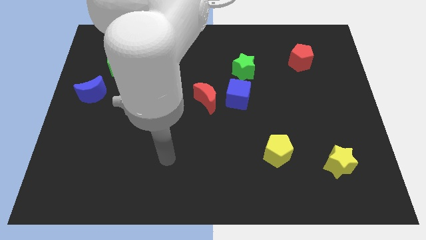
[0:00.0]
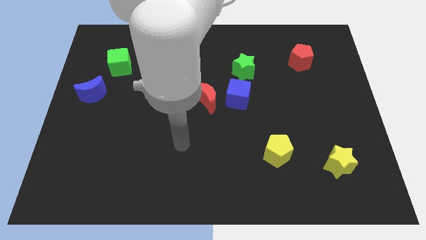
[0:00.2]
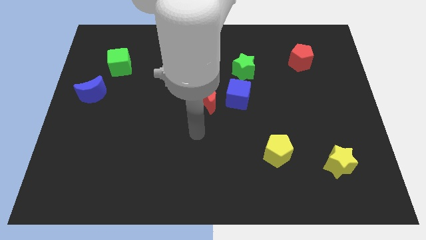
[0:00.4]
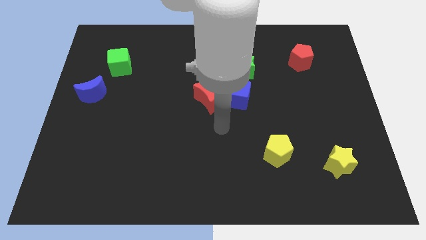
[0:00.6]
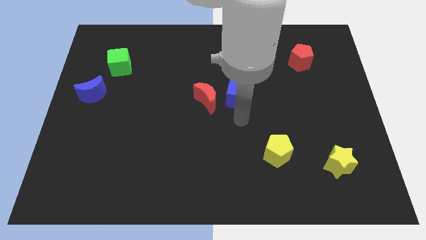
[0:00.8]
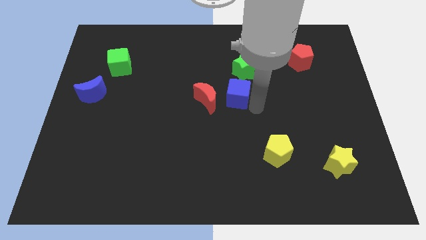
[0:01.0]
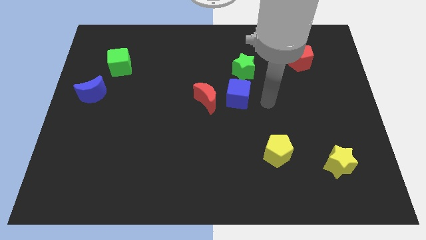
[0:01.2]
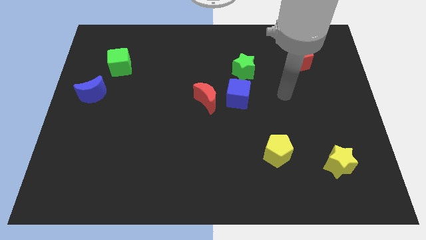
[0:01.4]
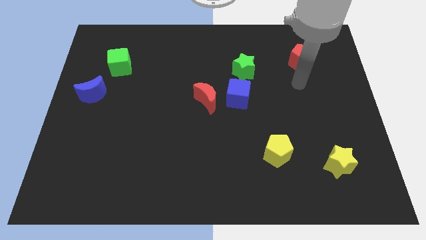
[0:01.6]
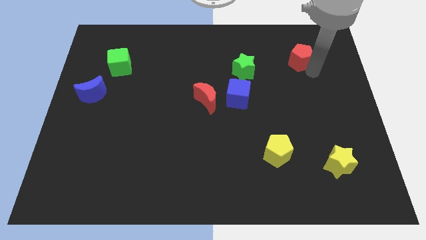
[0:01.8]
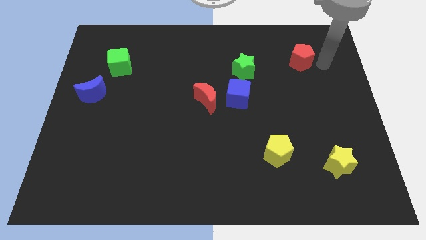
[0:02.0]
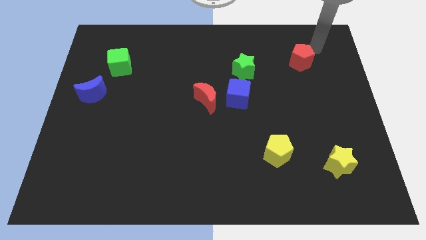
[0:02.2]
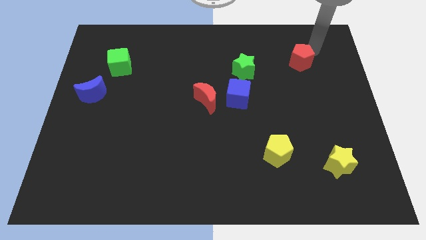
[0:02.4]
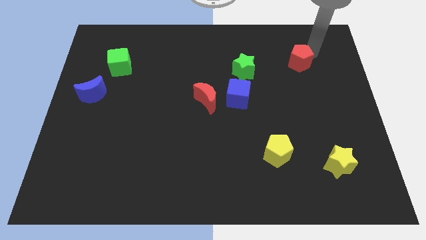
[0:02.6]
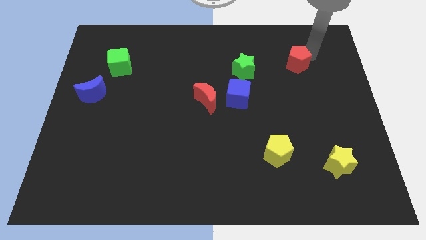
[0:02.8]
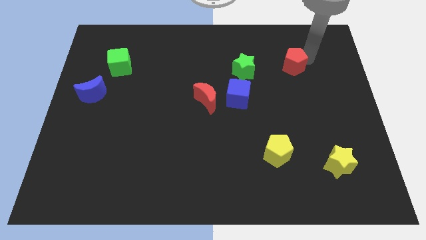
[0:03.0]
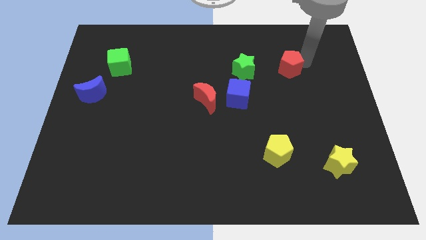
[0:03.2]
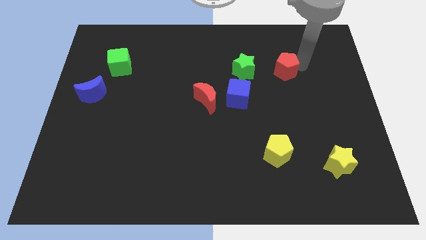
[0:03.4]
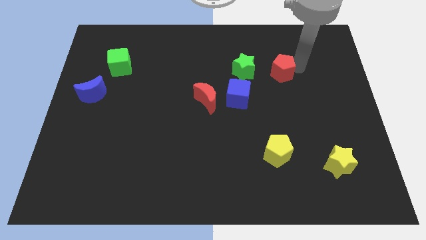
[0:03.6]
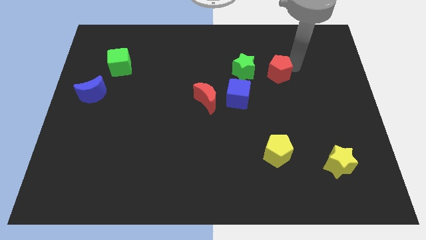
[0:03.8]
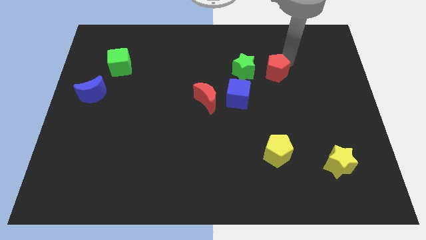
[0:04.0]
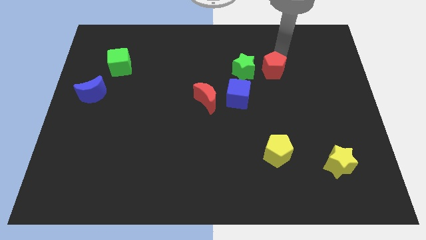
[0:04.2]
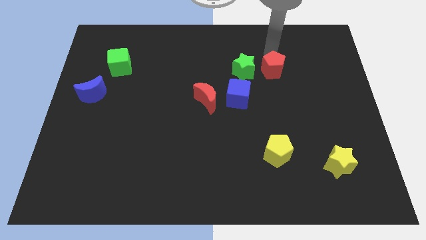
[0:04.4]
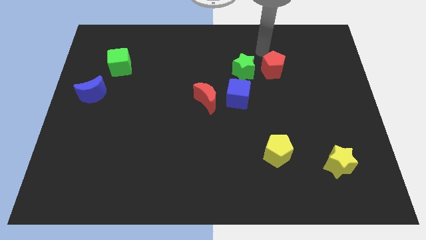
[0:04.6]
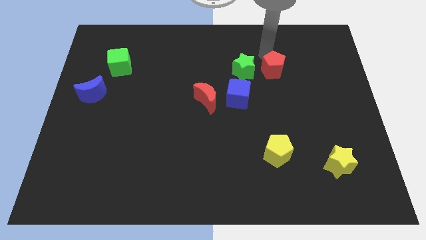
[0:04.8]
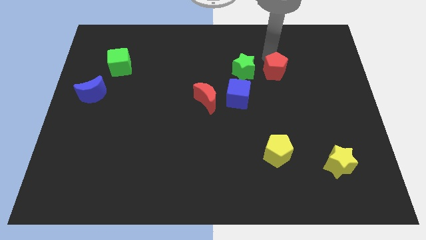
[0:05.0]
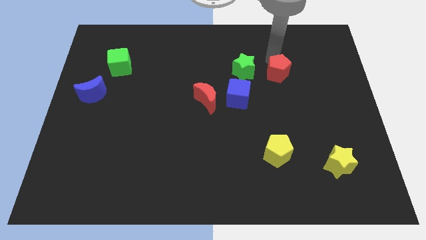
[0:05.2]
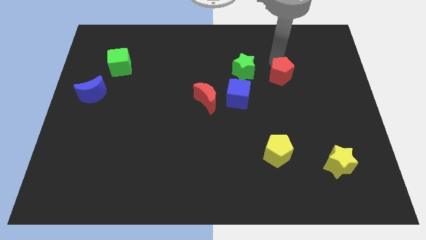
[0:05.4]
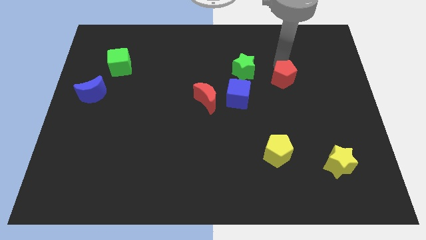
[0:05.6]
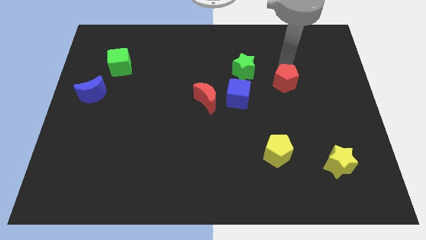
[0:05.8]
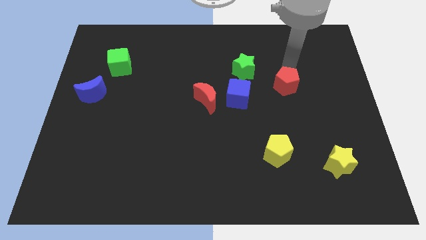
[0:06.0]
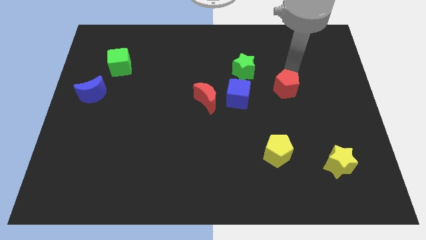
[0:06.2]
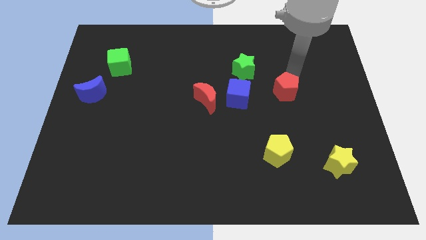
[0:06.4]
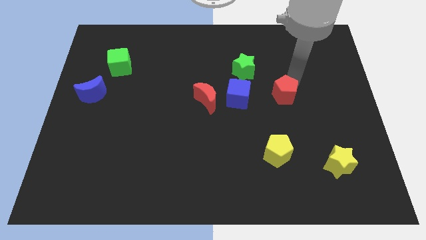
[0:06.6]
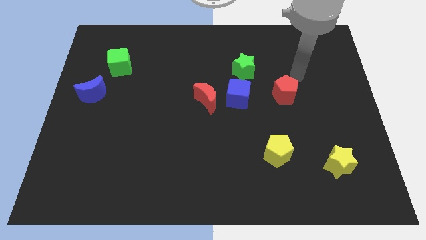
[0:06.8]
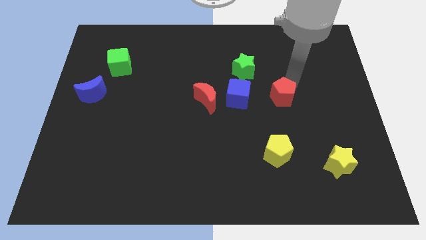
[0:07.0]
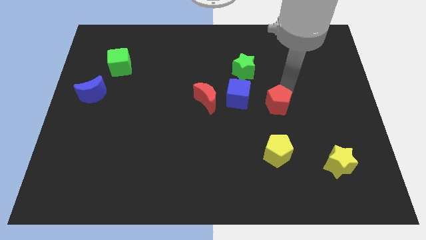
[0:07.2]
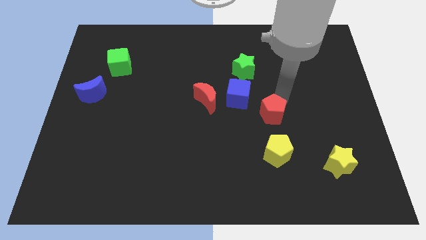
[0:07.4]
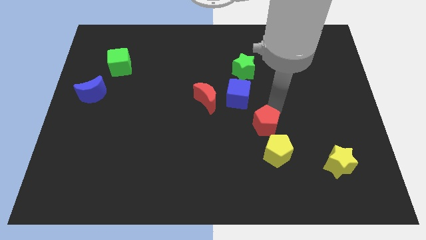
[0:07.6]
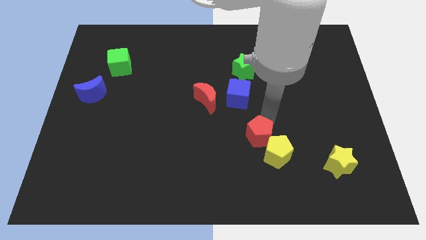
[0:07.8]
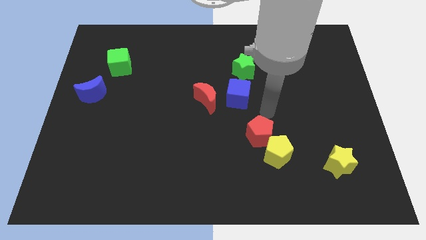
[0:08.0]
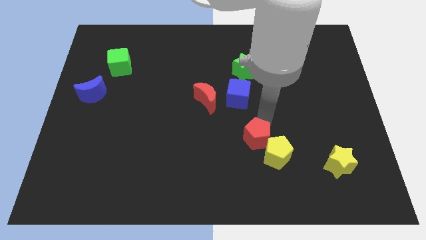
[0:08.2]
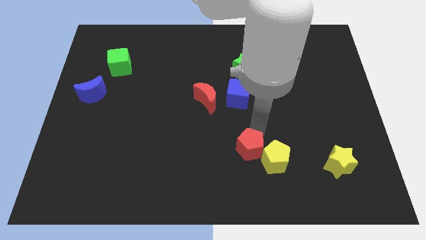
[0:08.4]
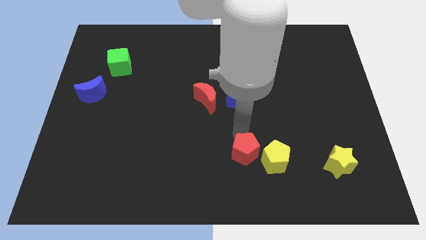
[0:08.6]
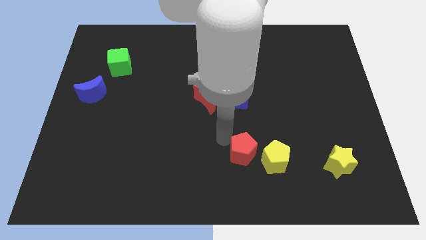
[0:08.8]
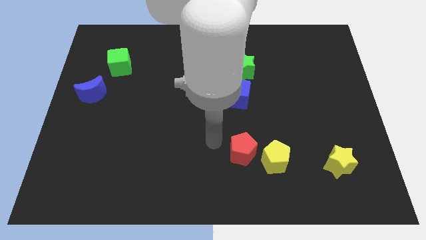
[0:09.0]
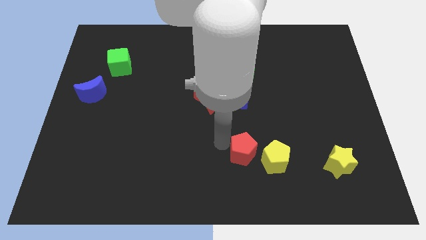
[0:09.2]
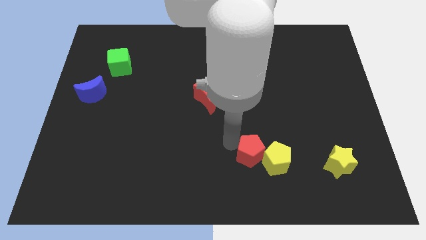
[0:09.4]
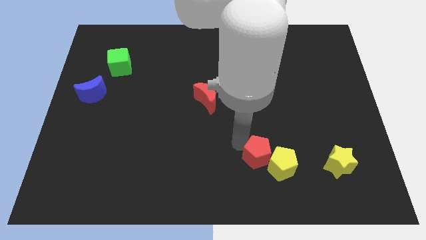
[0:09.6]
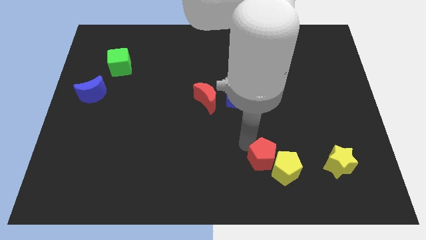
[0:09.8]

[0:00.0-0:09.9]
put the red pentagon to the left side of the yellow star

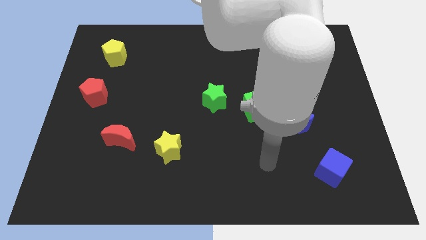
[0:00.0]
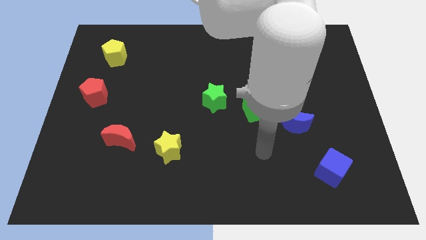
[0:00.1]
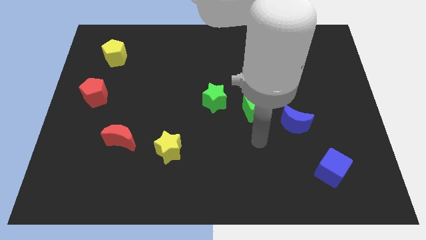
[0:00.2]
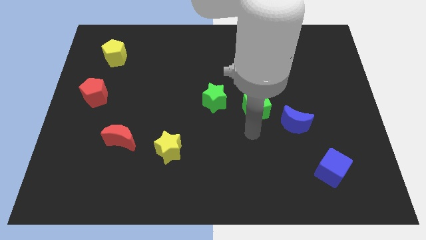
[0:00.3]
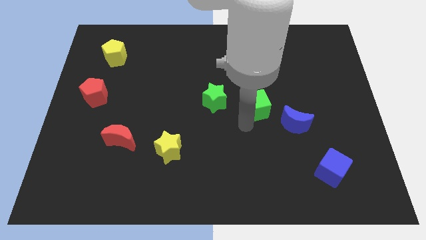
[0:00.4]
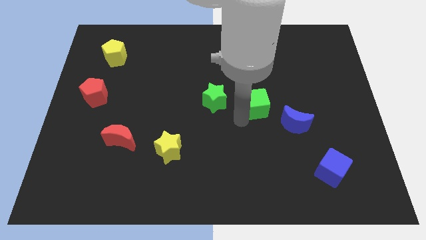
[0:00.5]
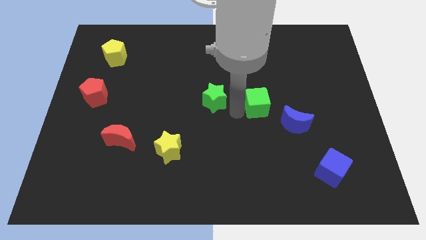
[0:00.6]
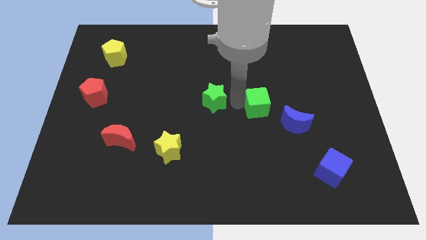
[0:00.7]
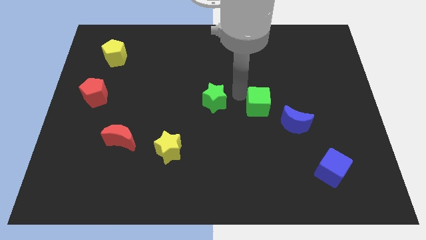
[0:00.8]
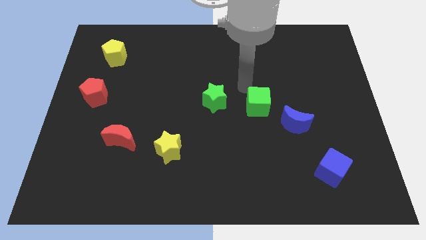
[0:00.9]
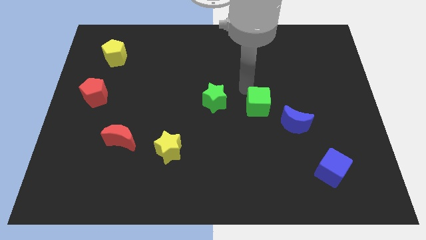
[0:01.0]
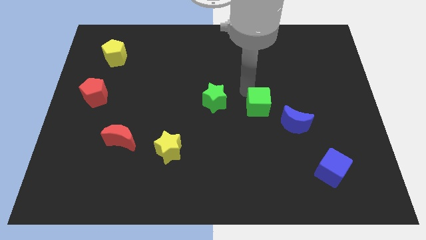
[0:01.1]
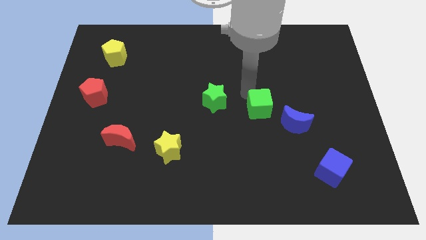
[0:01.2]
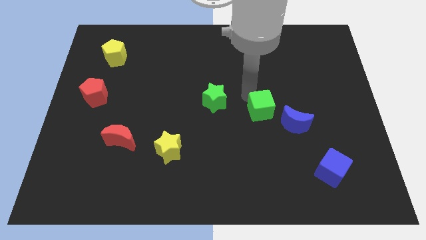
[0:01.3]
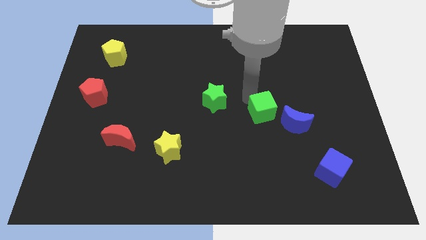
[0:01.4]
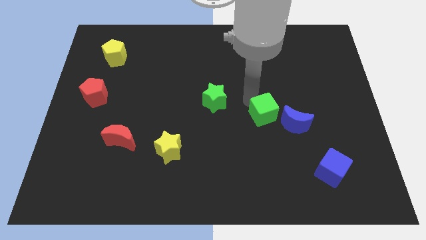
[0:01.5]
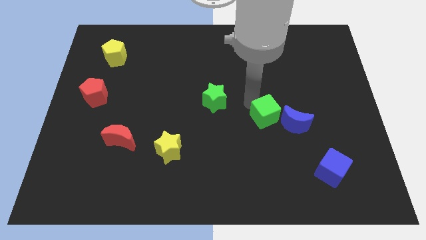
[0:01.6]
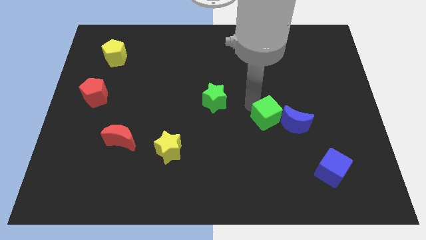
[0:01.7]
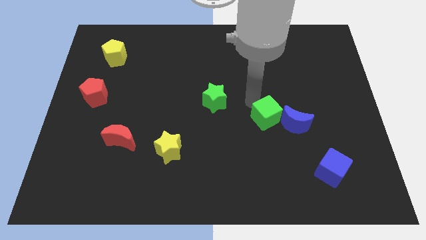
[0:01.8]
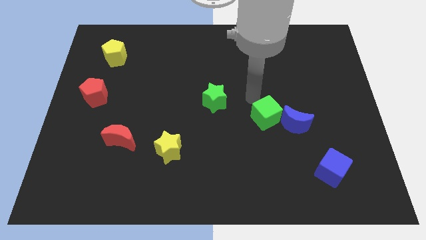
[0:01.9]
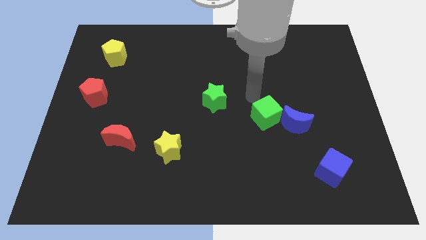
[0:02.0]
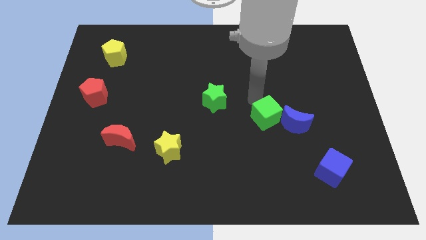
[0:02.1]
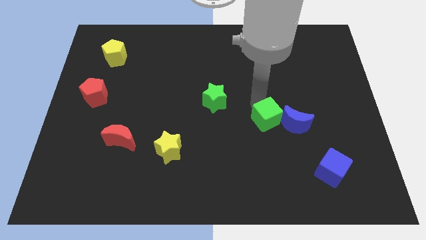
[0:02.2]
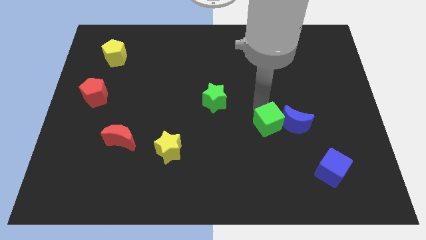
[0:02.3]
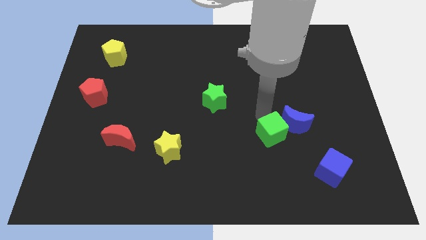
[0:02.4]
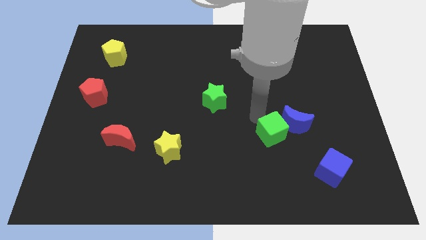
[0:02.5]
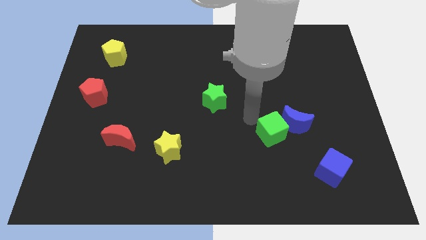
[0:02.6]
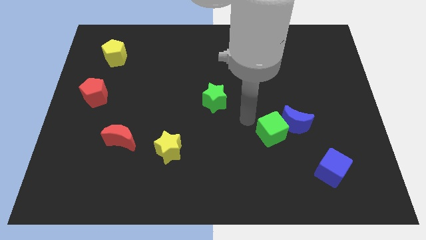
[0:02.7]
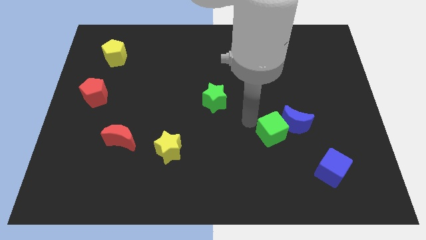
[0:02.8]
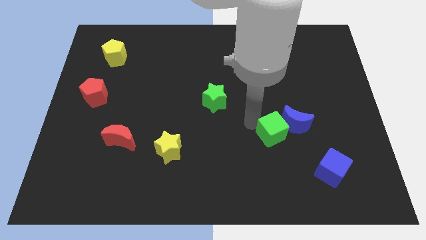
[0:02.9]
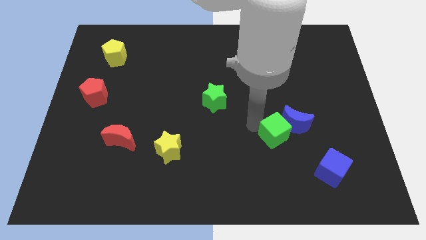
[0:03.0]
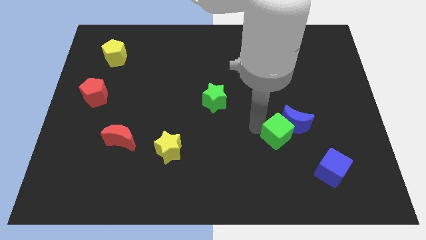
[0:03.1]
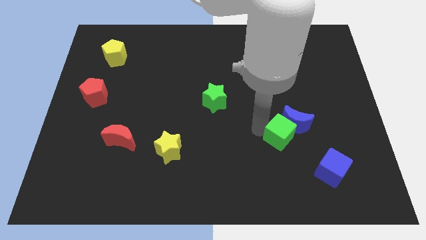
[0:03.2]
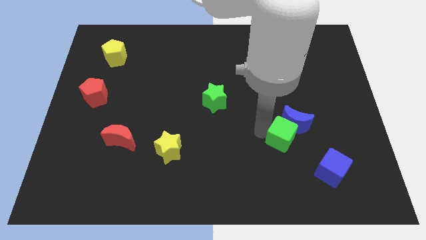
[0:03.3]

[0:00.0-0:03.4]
put the green cube to the top left of the blue cube
